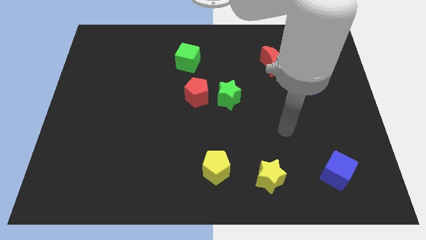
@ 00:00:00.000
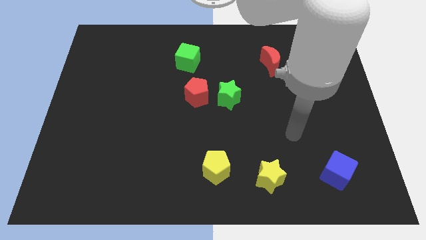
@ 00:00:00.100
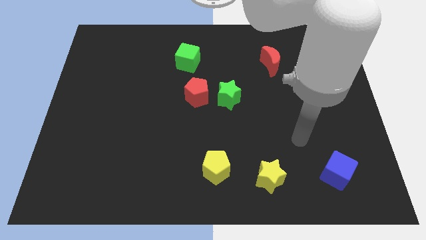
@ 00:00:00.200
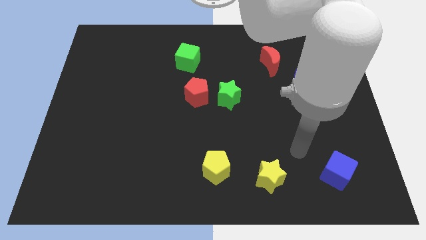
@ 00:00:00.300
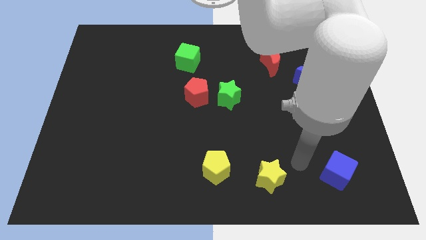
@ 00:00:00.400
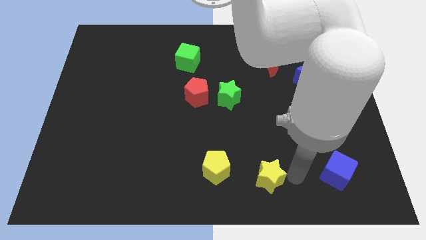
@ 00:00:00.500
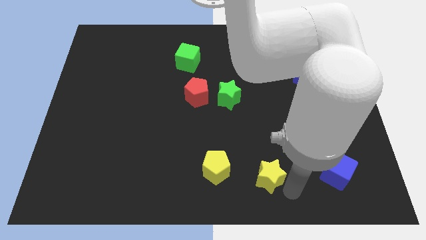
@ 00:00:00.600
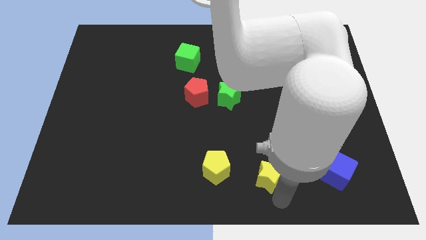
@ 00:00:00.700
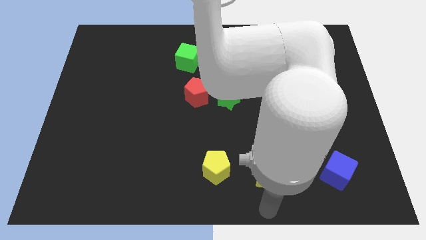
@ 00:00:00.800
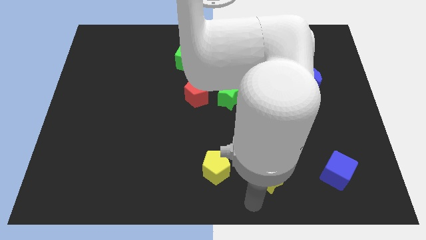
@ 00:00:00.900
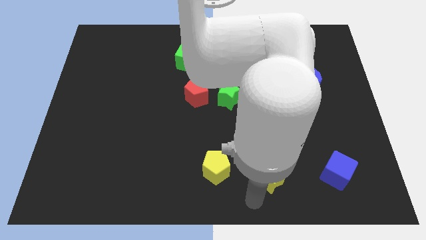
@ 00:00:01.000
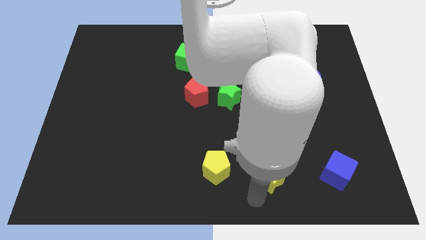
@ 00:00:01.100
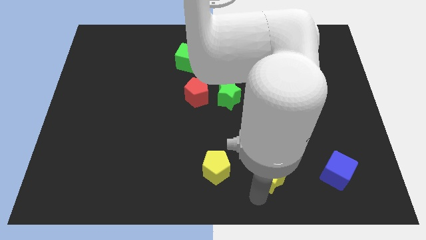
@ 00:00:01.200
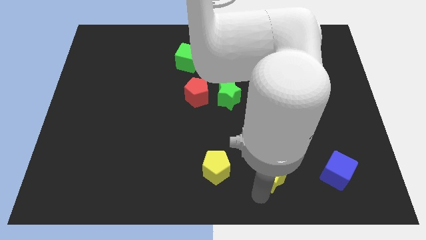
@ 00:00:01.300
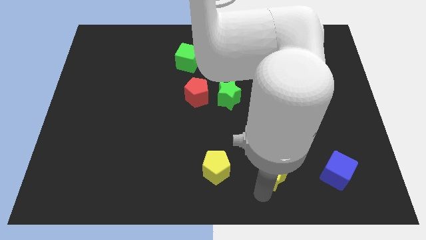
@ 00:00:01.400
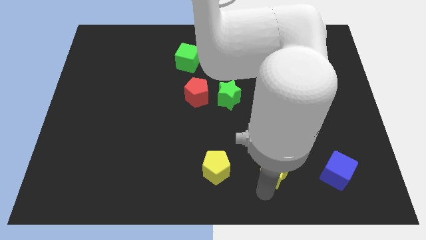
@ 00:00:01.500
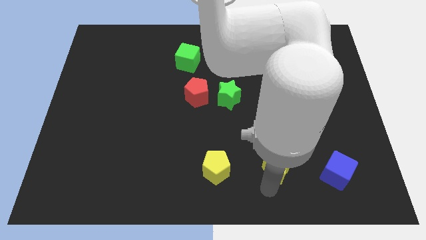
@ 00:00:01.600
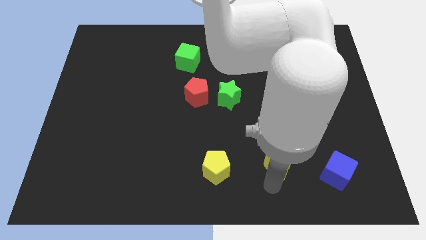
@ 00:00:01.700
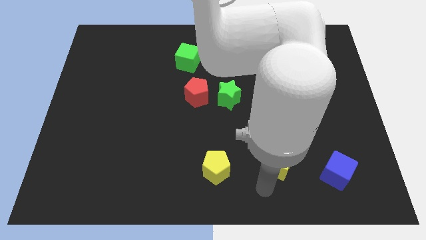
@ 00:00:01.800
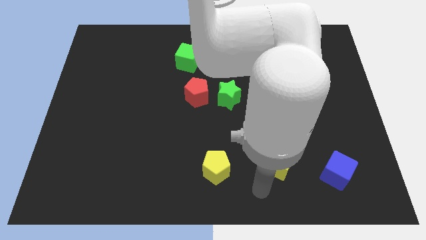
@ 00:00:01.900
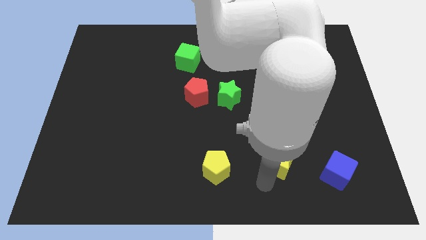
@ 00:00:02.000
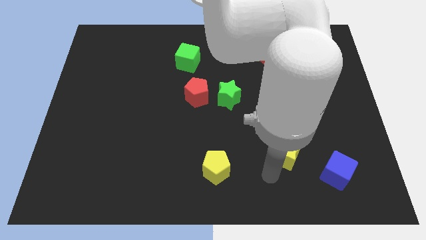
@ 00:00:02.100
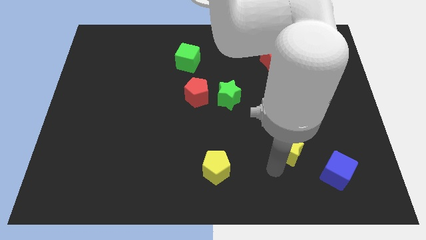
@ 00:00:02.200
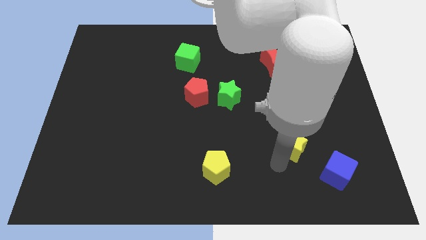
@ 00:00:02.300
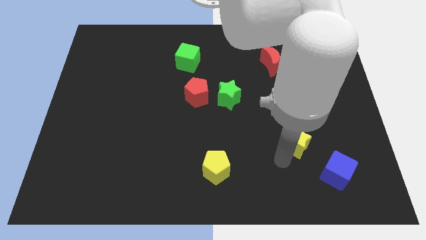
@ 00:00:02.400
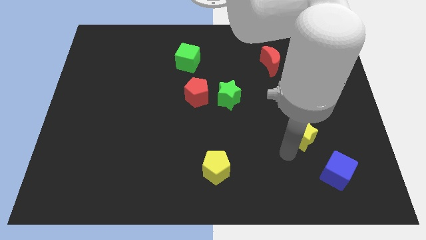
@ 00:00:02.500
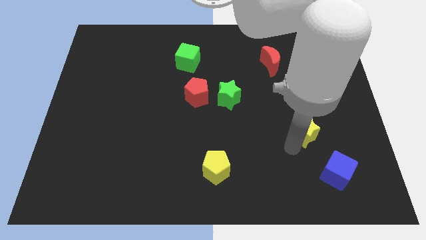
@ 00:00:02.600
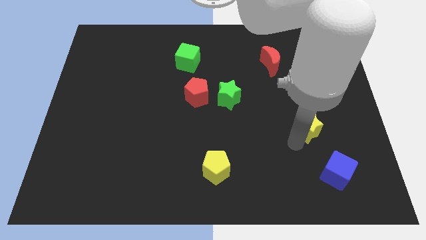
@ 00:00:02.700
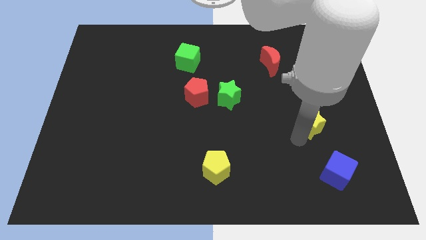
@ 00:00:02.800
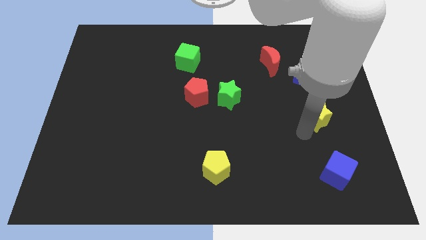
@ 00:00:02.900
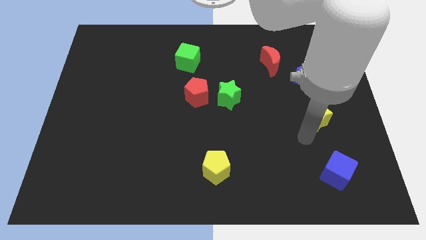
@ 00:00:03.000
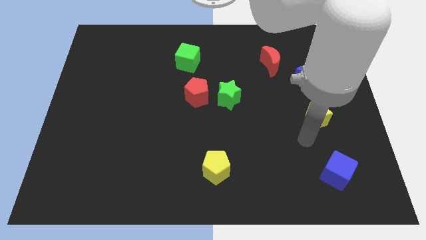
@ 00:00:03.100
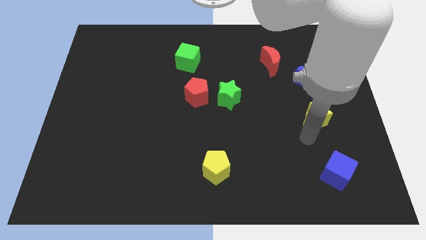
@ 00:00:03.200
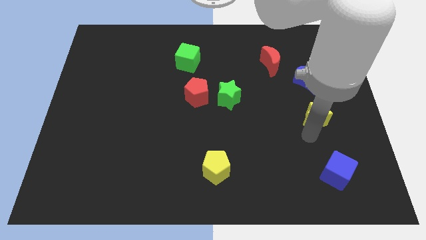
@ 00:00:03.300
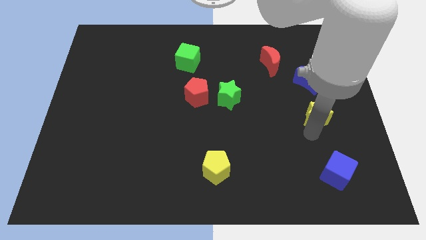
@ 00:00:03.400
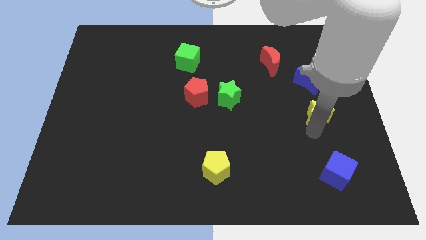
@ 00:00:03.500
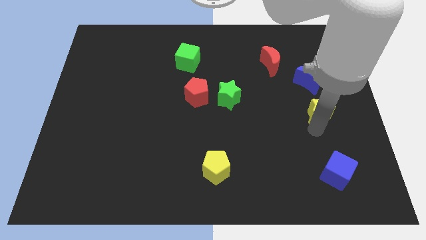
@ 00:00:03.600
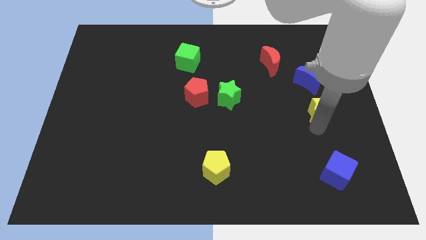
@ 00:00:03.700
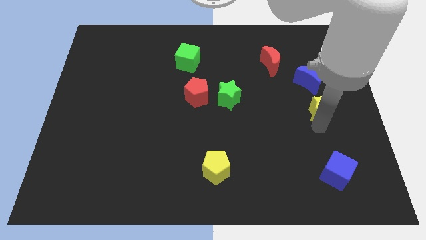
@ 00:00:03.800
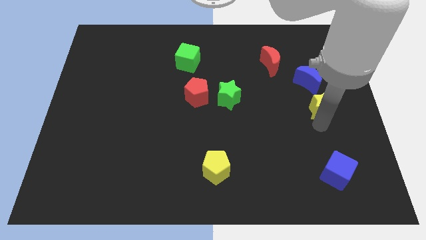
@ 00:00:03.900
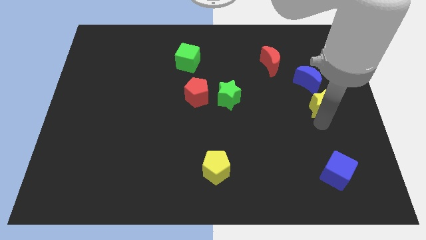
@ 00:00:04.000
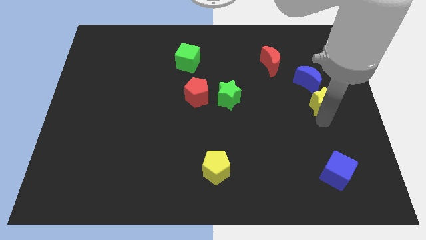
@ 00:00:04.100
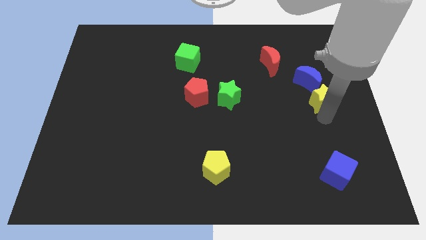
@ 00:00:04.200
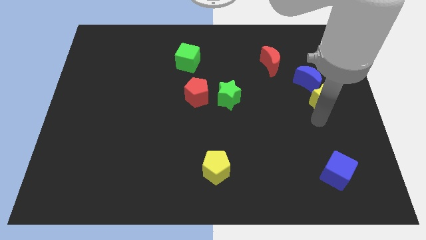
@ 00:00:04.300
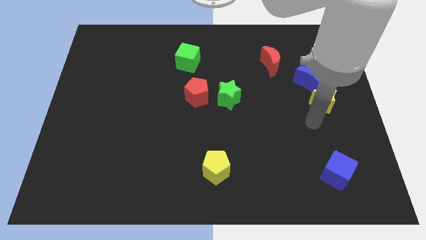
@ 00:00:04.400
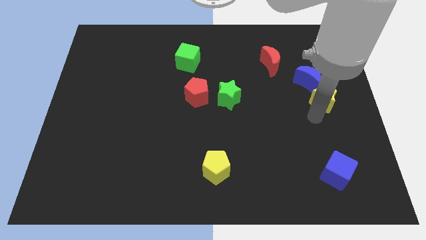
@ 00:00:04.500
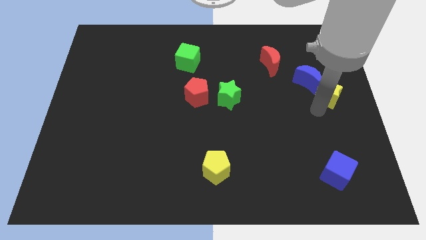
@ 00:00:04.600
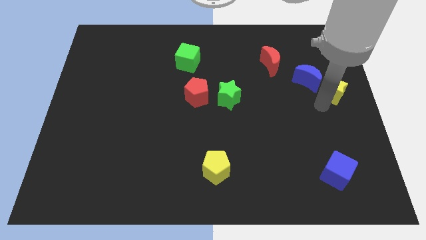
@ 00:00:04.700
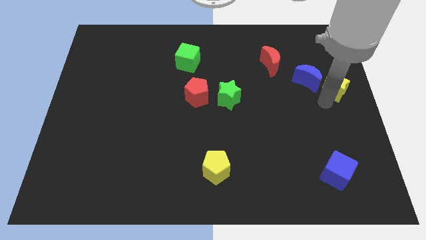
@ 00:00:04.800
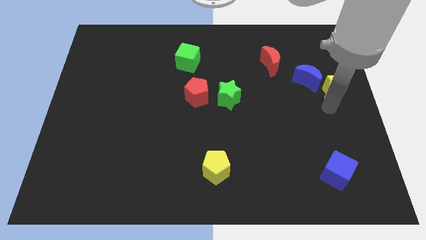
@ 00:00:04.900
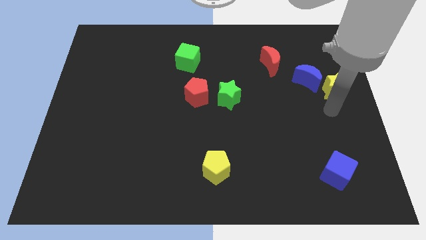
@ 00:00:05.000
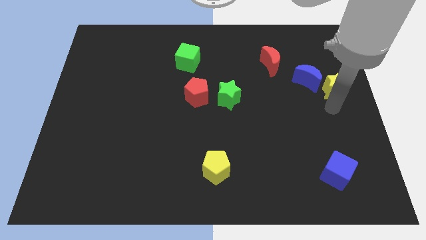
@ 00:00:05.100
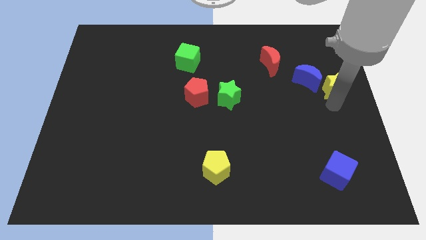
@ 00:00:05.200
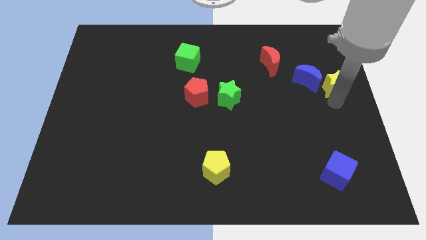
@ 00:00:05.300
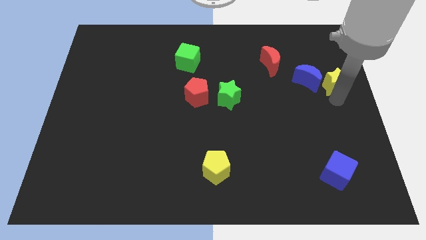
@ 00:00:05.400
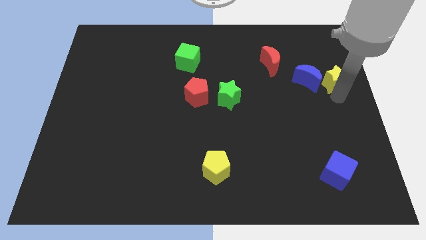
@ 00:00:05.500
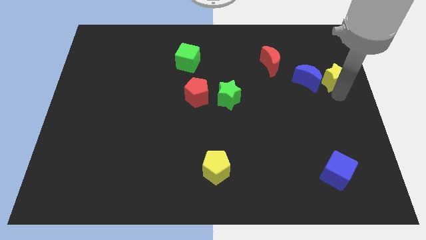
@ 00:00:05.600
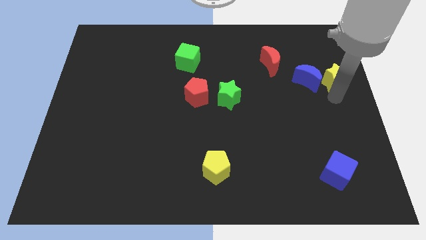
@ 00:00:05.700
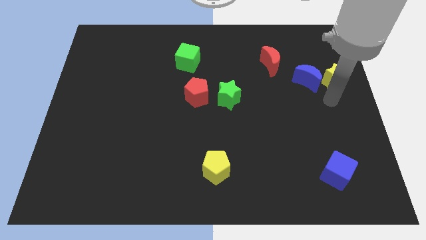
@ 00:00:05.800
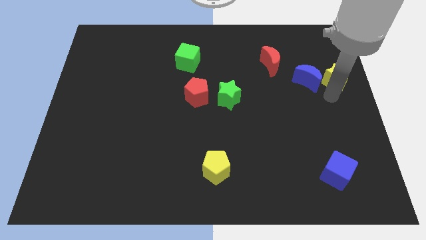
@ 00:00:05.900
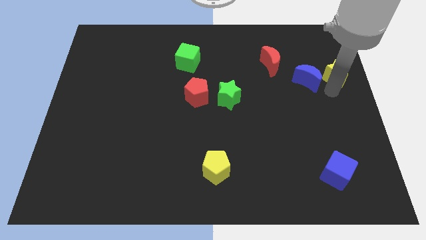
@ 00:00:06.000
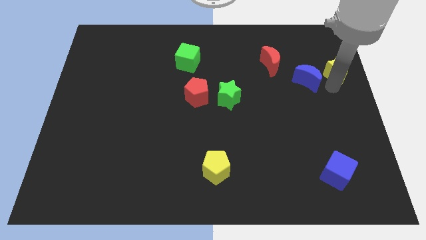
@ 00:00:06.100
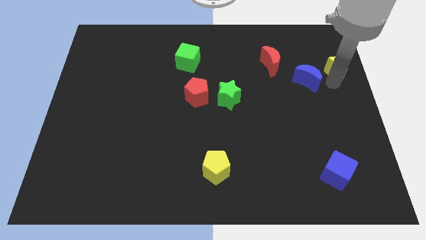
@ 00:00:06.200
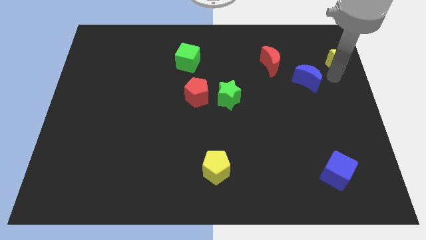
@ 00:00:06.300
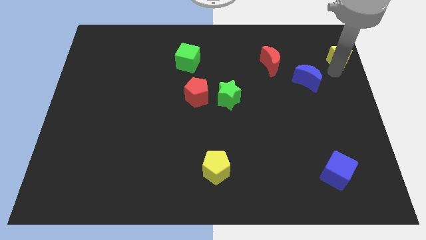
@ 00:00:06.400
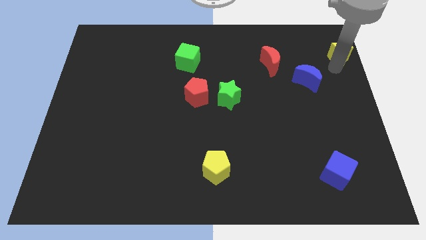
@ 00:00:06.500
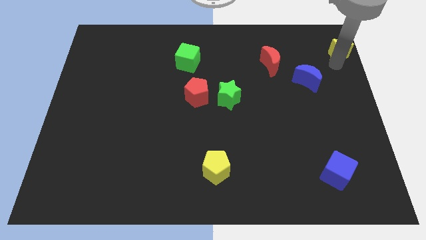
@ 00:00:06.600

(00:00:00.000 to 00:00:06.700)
put the yellow star to the top right
